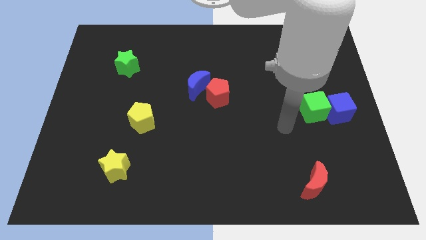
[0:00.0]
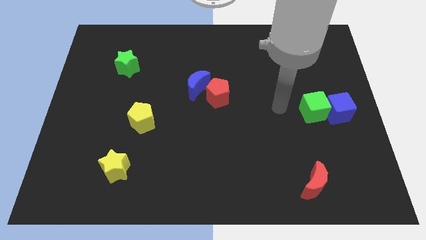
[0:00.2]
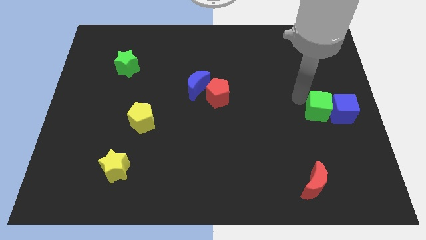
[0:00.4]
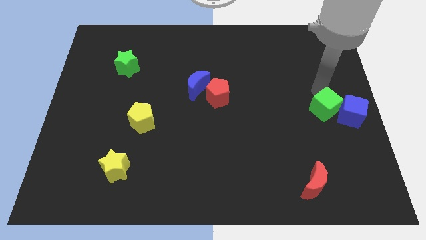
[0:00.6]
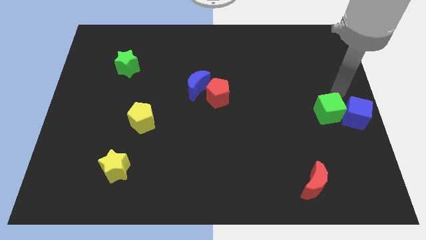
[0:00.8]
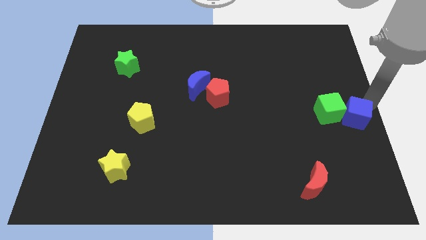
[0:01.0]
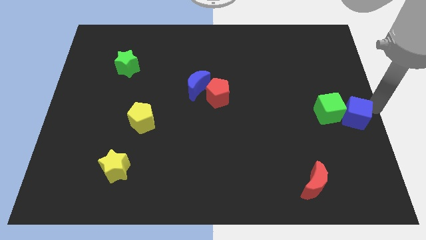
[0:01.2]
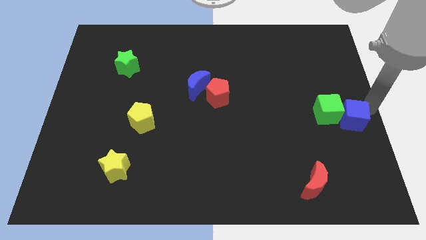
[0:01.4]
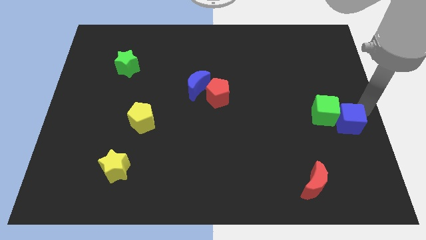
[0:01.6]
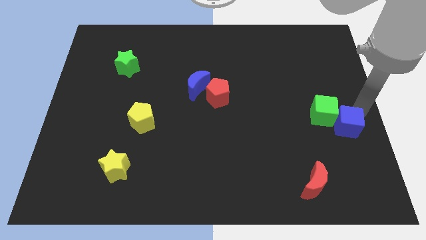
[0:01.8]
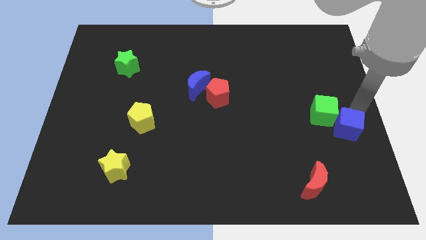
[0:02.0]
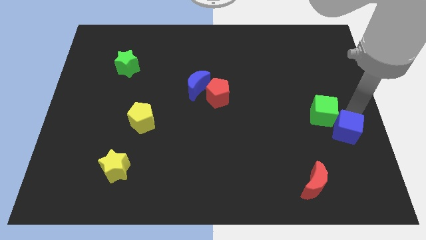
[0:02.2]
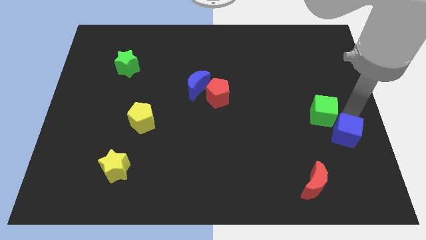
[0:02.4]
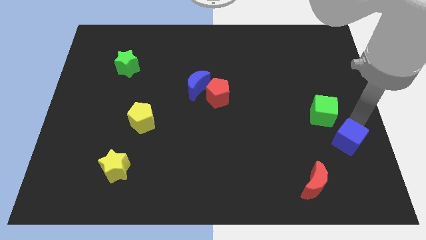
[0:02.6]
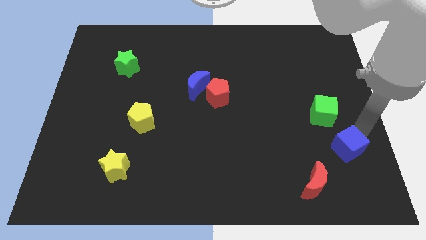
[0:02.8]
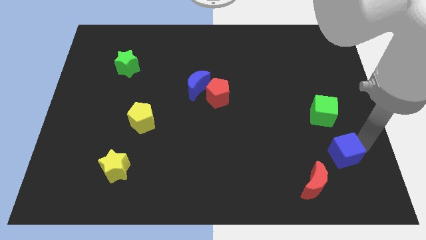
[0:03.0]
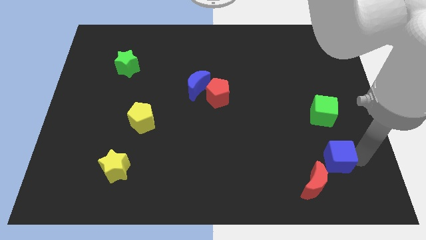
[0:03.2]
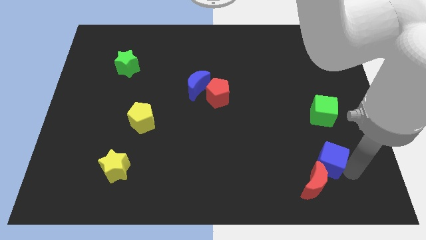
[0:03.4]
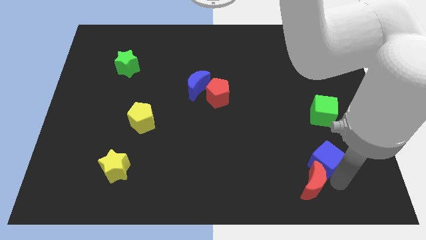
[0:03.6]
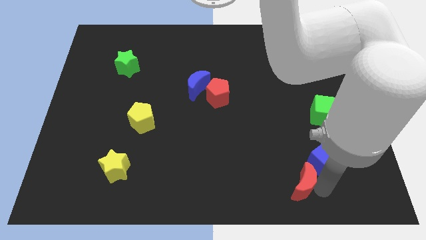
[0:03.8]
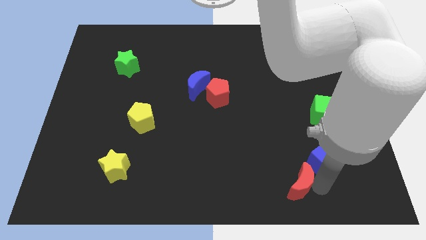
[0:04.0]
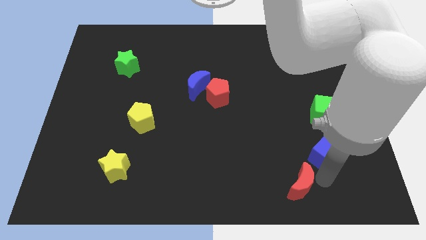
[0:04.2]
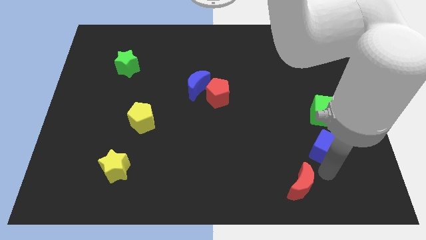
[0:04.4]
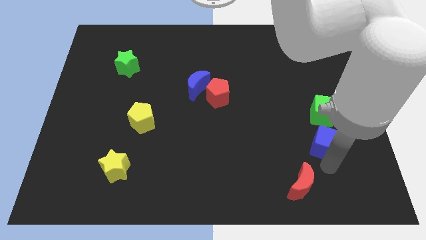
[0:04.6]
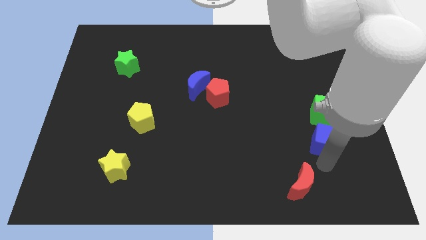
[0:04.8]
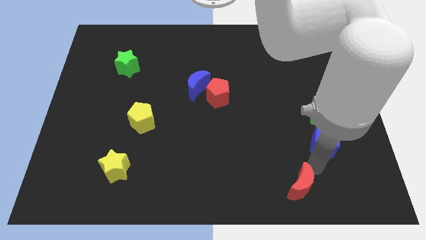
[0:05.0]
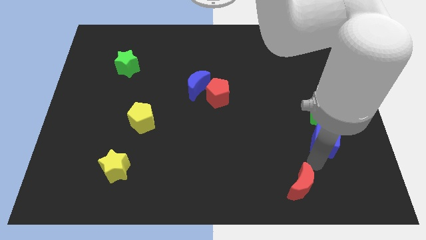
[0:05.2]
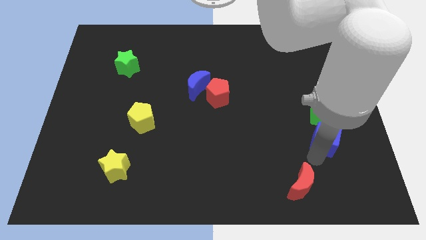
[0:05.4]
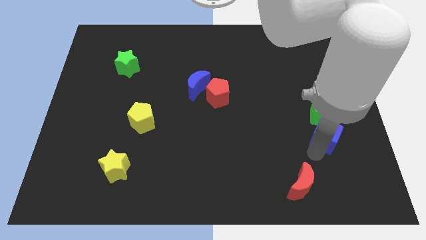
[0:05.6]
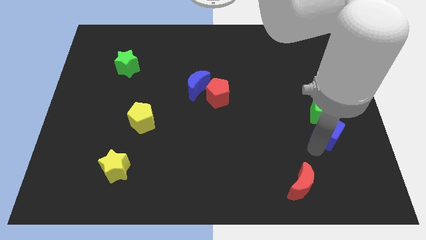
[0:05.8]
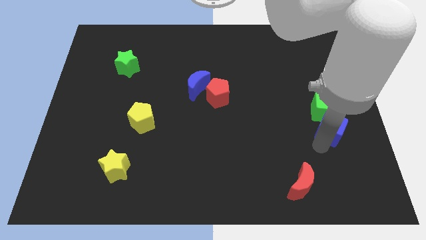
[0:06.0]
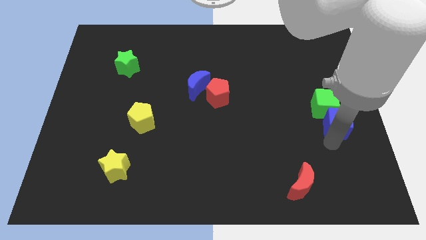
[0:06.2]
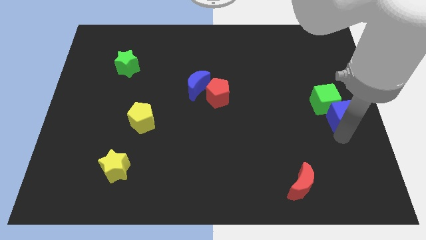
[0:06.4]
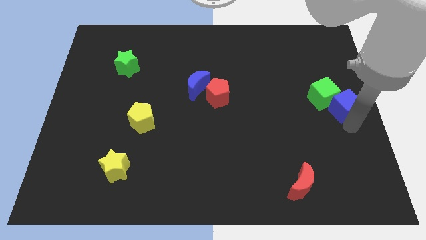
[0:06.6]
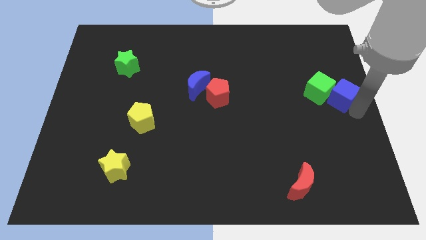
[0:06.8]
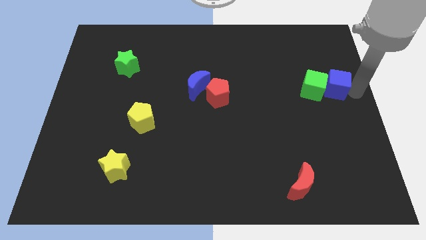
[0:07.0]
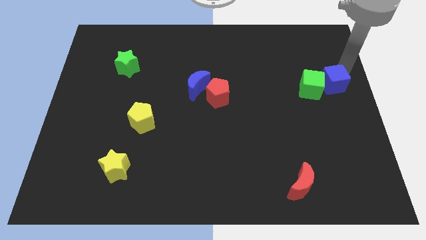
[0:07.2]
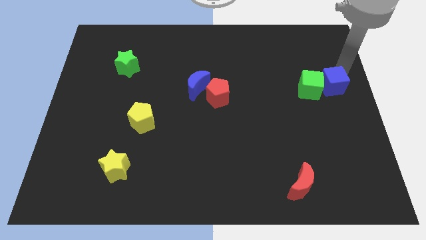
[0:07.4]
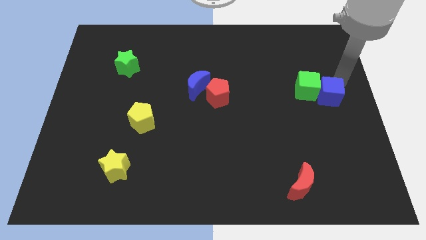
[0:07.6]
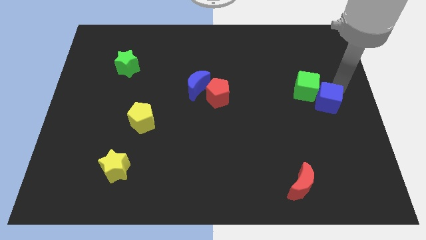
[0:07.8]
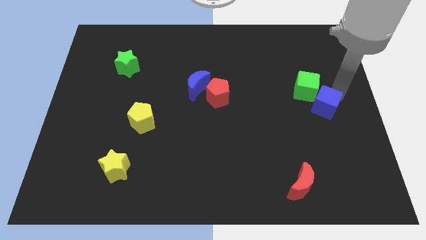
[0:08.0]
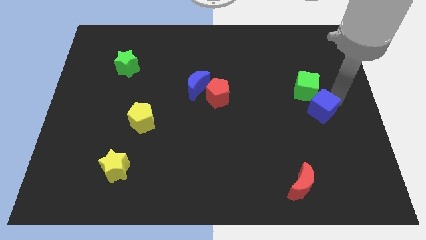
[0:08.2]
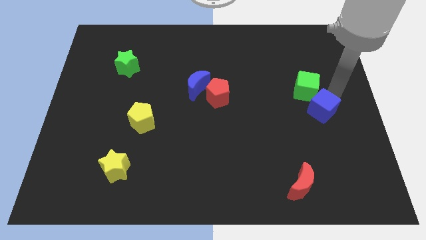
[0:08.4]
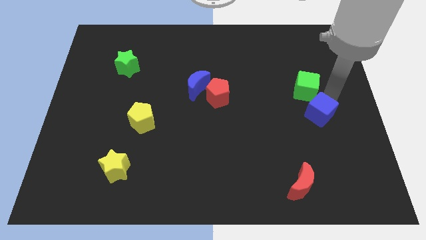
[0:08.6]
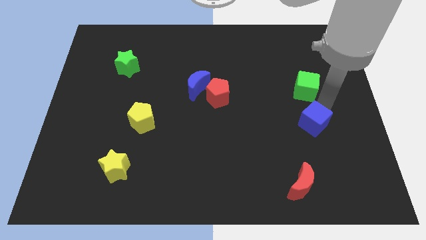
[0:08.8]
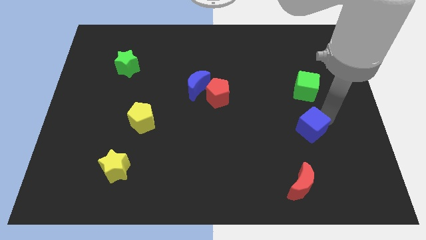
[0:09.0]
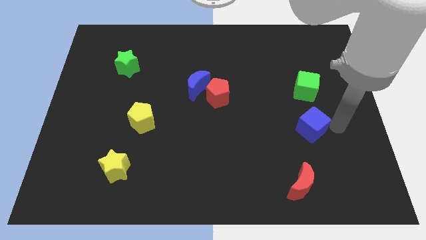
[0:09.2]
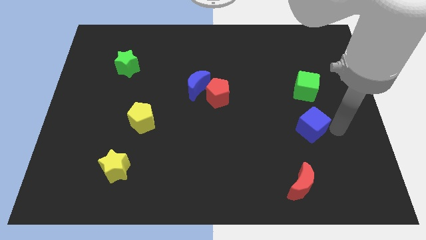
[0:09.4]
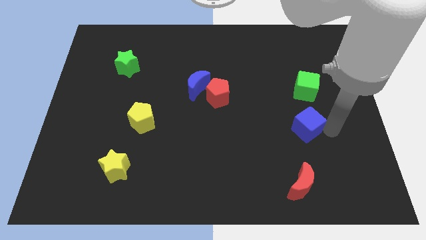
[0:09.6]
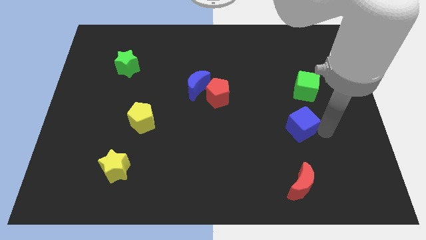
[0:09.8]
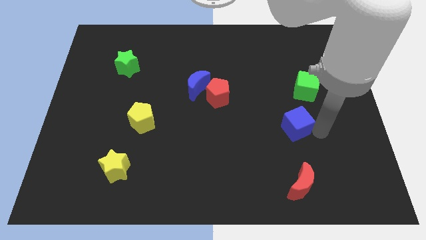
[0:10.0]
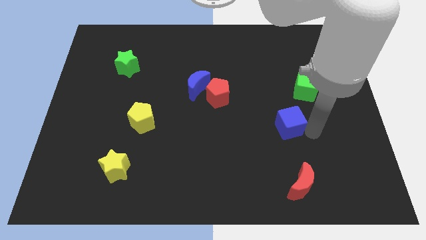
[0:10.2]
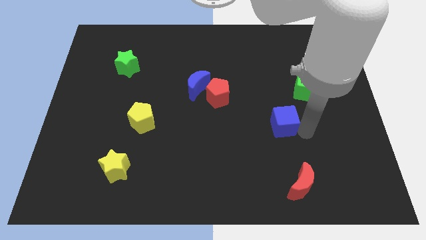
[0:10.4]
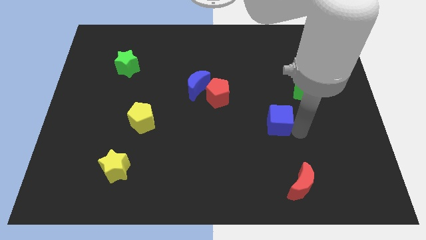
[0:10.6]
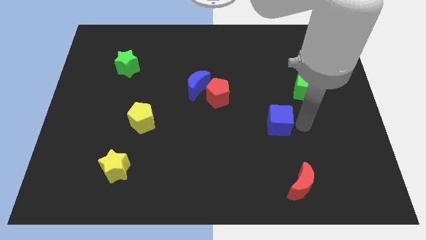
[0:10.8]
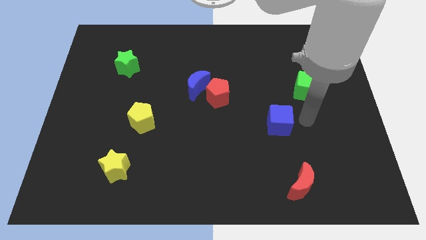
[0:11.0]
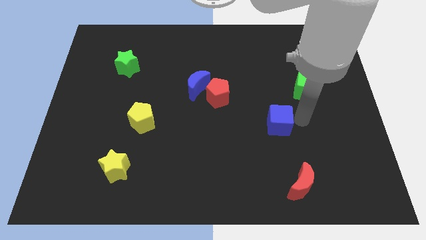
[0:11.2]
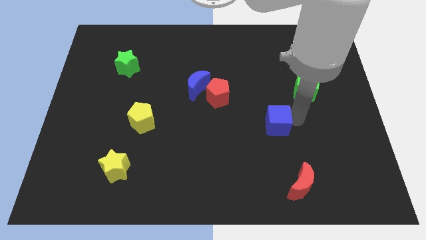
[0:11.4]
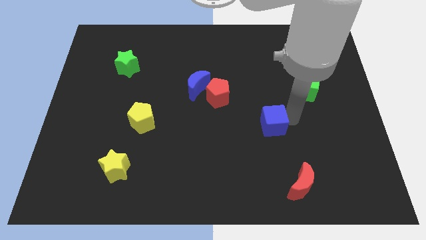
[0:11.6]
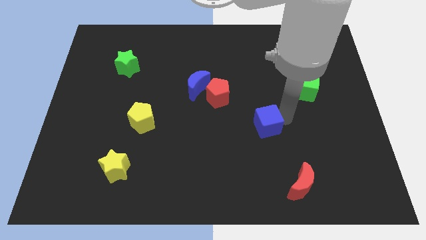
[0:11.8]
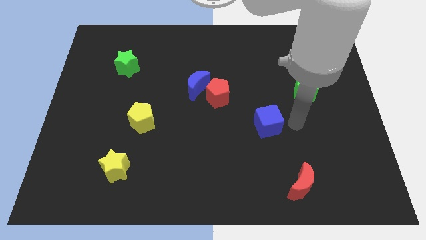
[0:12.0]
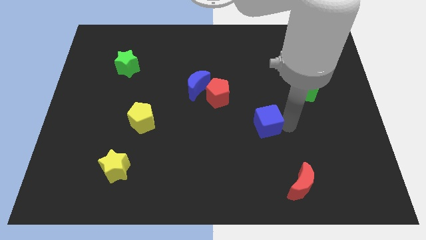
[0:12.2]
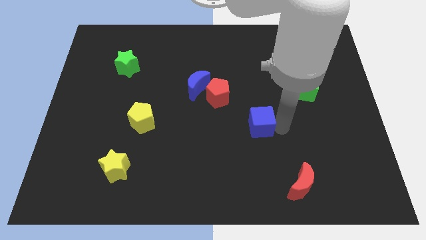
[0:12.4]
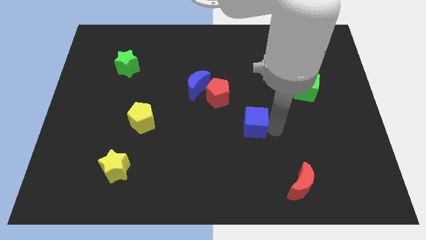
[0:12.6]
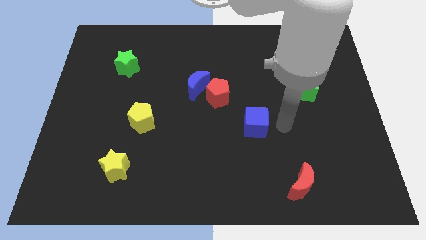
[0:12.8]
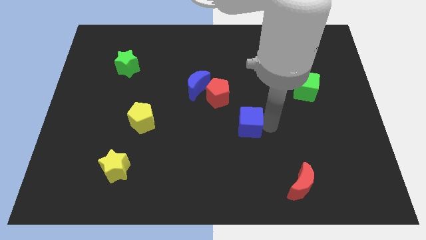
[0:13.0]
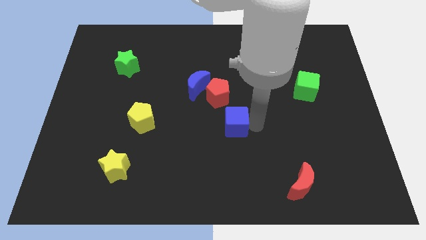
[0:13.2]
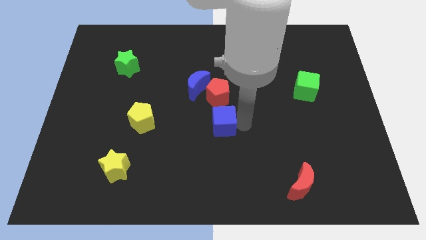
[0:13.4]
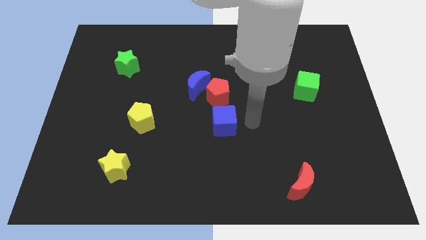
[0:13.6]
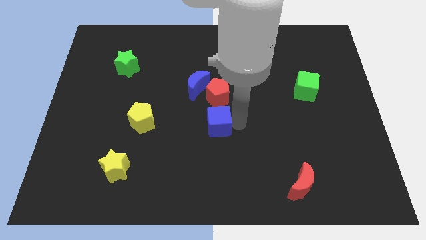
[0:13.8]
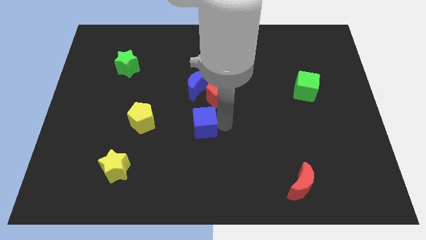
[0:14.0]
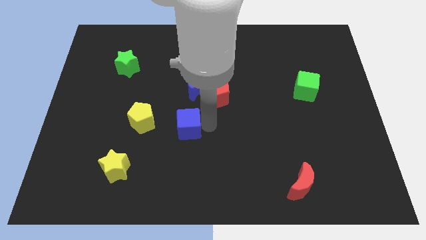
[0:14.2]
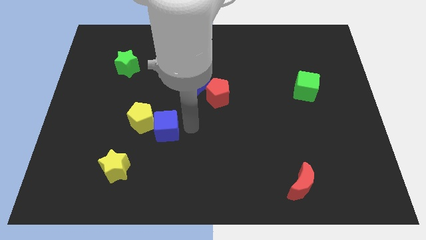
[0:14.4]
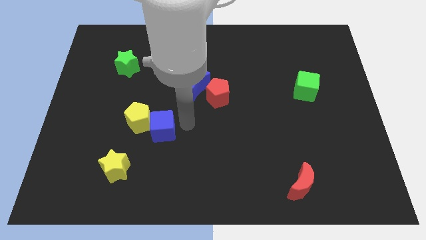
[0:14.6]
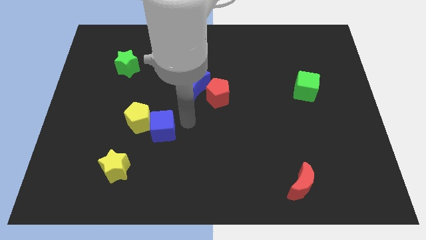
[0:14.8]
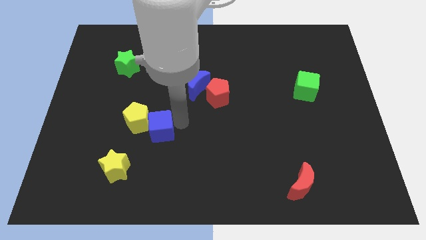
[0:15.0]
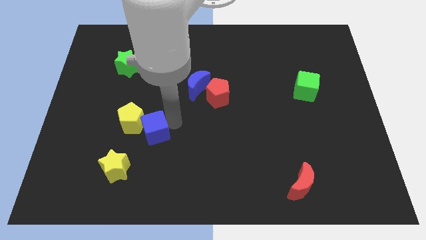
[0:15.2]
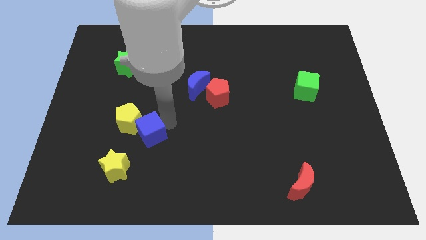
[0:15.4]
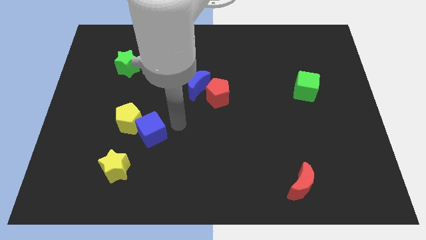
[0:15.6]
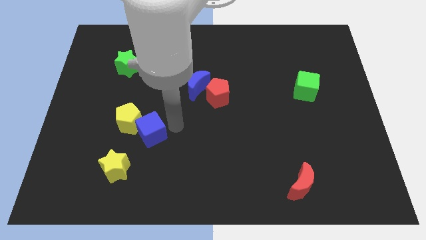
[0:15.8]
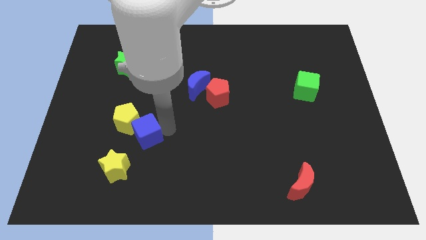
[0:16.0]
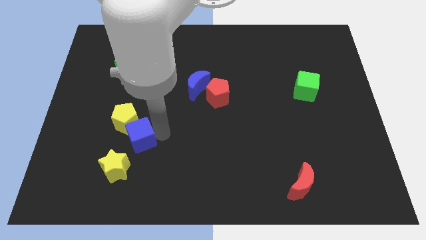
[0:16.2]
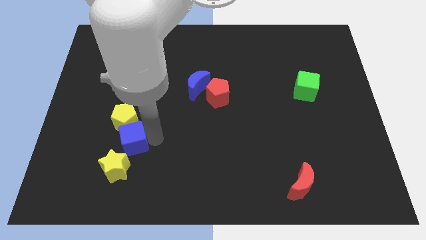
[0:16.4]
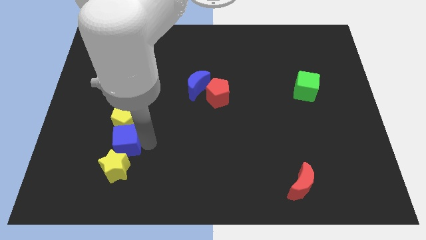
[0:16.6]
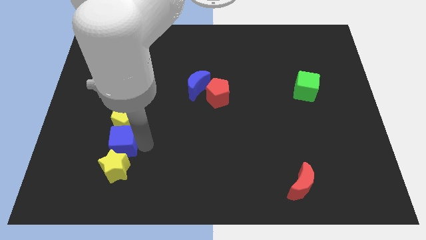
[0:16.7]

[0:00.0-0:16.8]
slide the blue cube to the top left side of the yellow star
